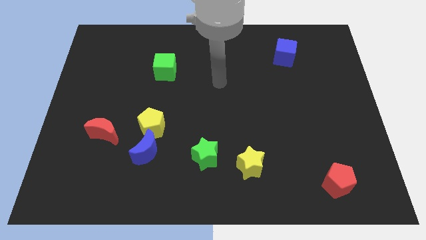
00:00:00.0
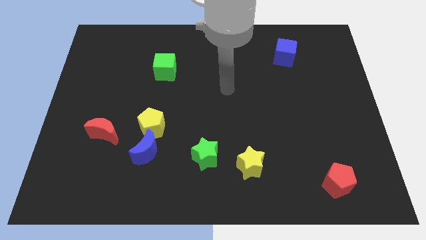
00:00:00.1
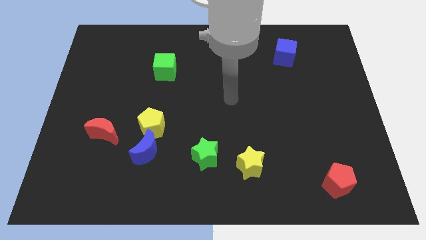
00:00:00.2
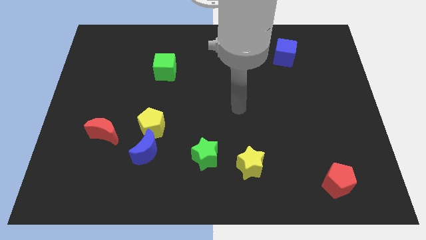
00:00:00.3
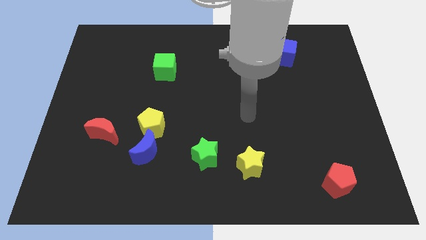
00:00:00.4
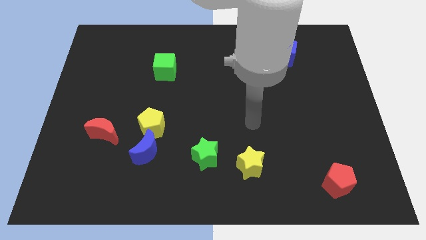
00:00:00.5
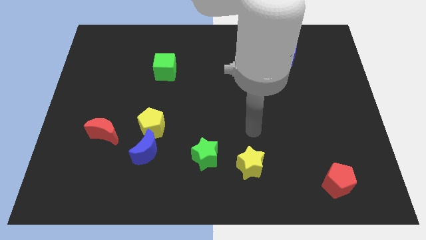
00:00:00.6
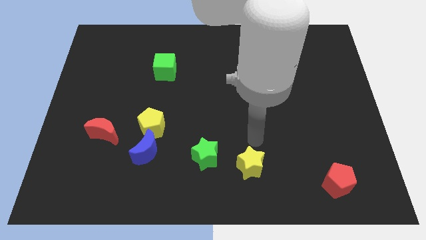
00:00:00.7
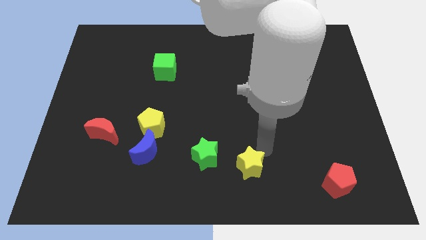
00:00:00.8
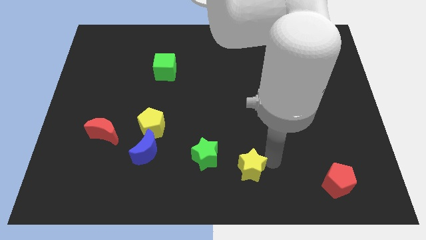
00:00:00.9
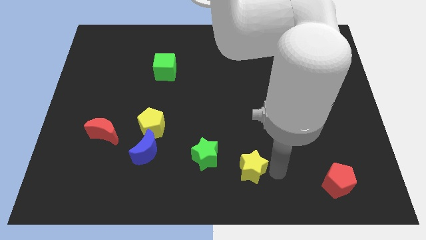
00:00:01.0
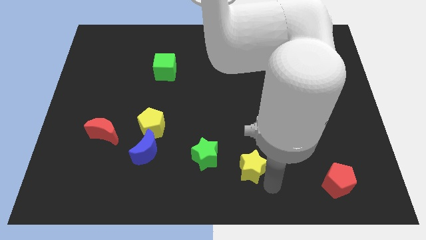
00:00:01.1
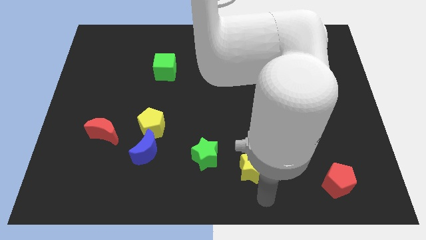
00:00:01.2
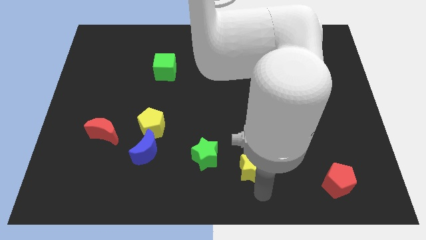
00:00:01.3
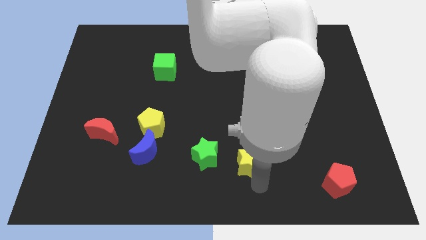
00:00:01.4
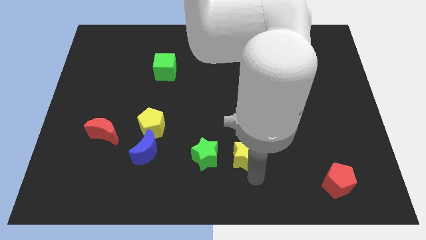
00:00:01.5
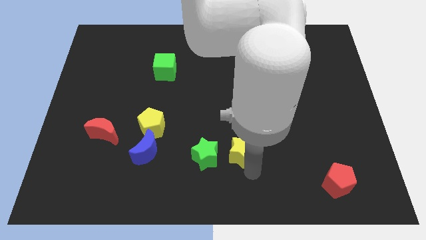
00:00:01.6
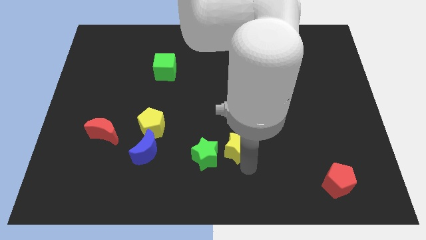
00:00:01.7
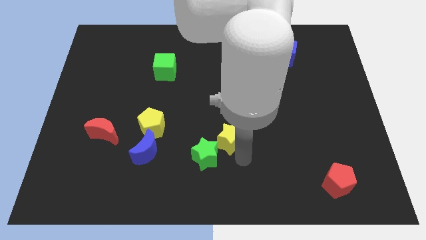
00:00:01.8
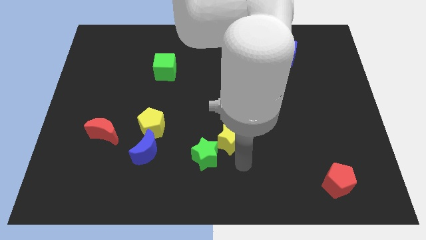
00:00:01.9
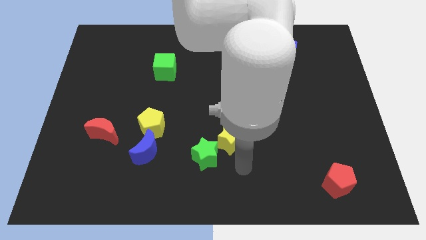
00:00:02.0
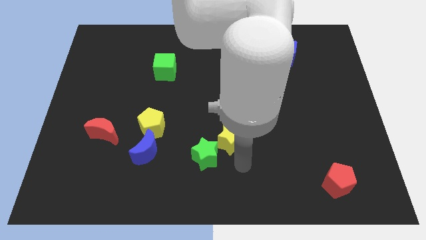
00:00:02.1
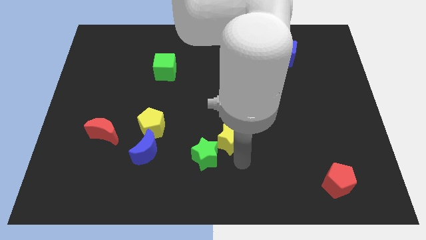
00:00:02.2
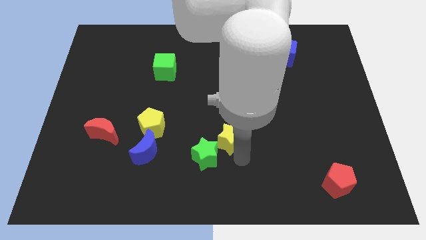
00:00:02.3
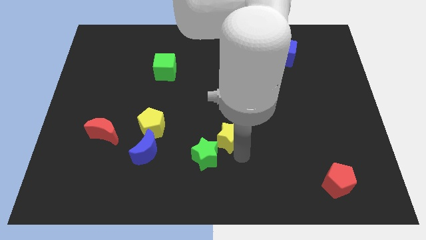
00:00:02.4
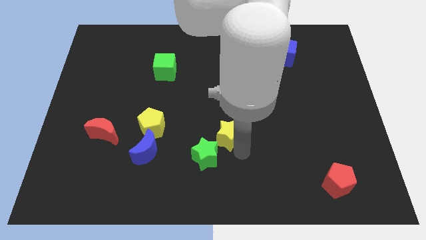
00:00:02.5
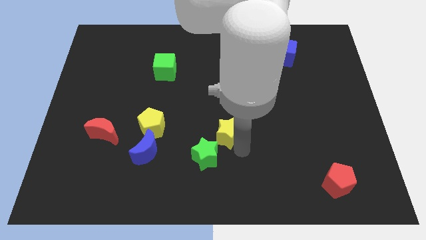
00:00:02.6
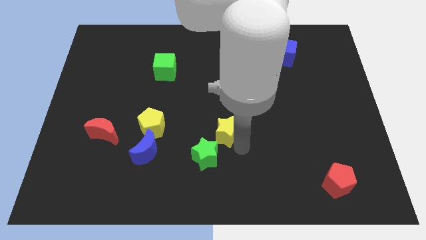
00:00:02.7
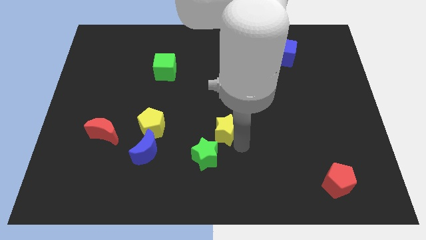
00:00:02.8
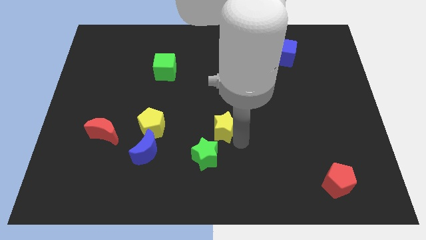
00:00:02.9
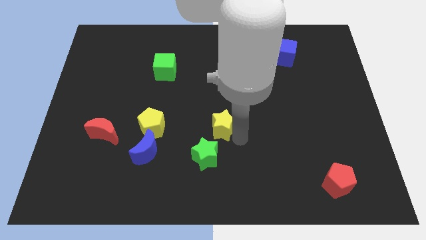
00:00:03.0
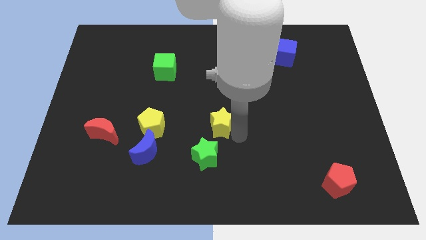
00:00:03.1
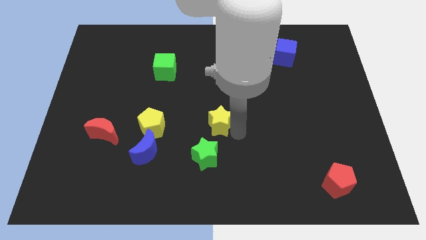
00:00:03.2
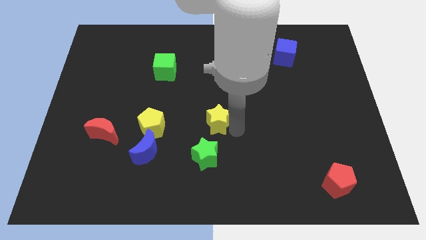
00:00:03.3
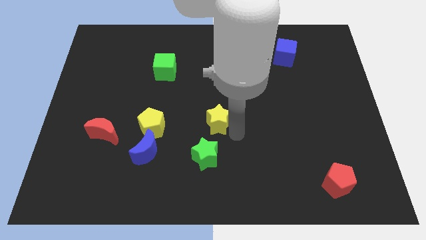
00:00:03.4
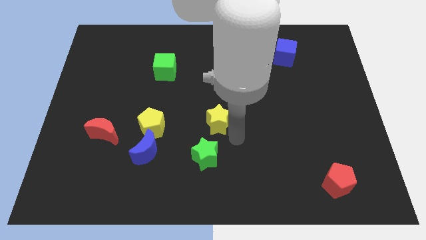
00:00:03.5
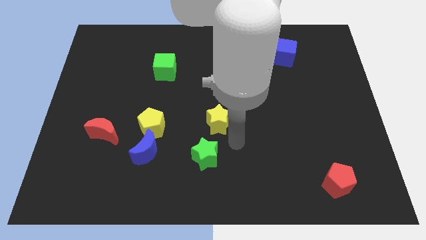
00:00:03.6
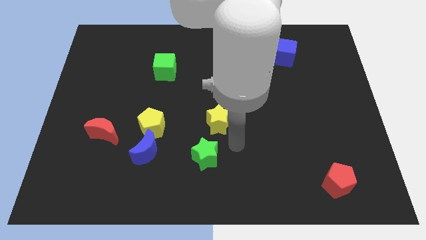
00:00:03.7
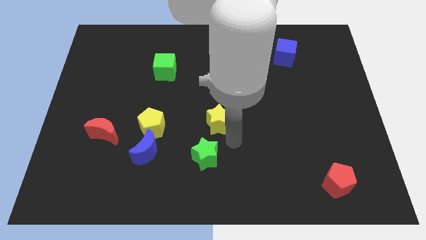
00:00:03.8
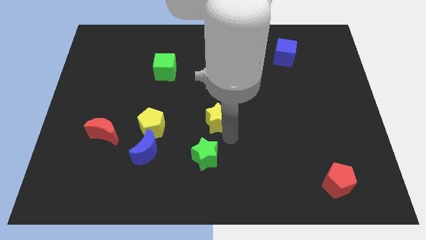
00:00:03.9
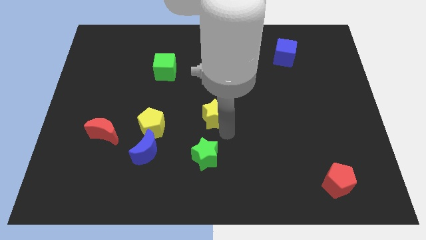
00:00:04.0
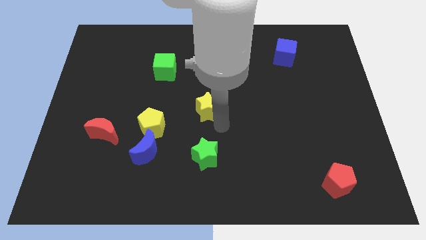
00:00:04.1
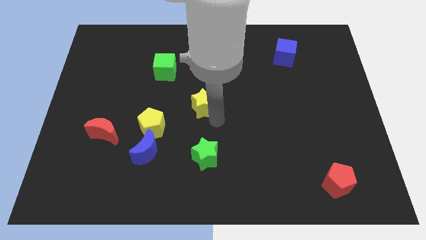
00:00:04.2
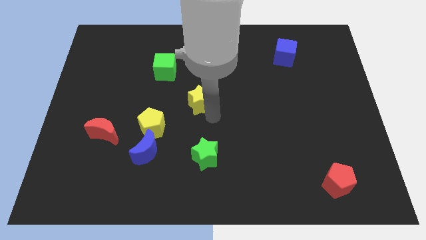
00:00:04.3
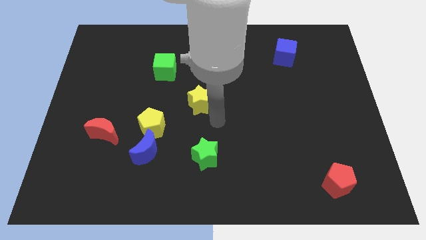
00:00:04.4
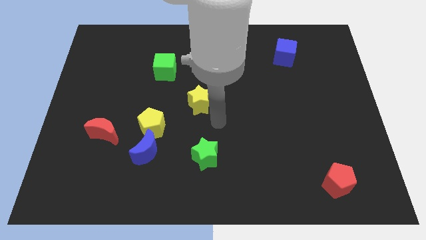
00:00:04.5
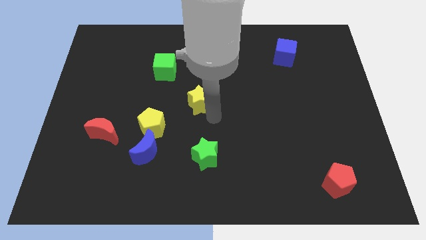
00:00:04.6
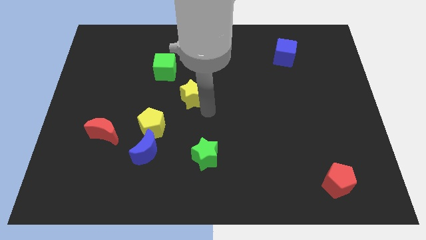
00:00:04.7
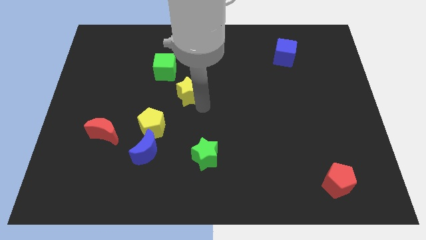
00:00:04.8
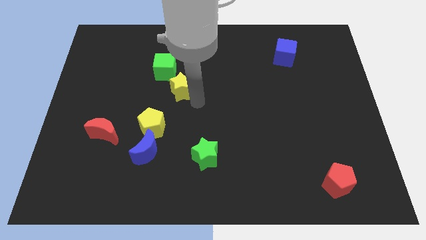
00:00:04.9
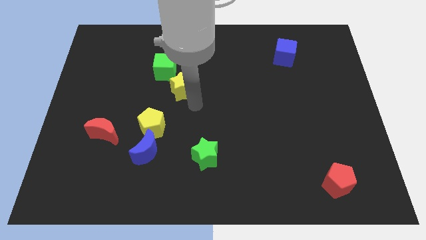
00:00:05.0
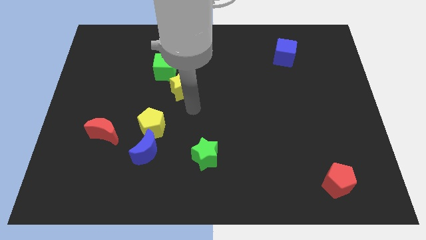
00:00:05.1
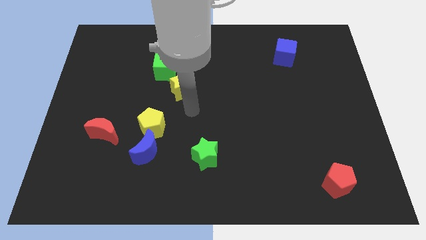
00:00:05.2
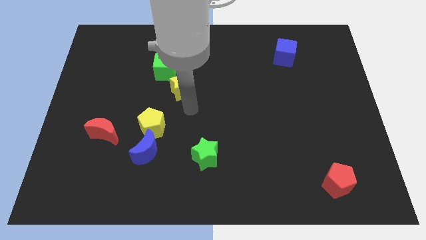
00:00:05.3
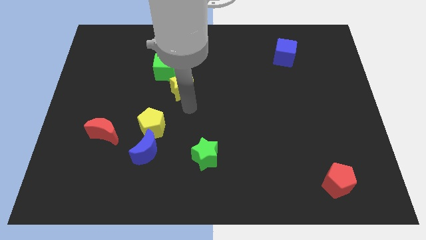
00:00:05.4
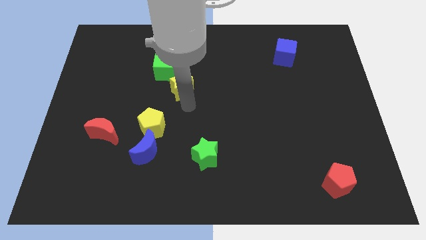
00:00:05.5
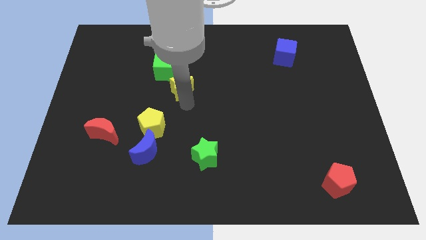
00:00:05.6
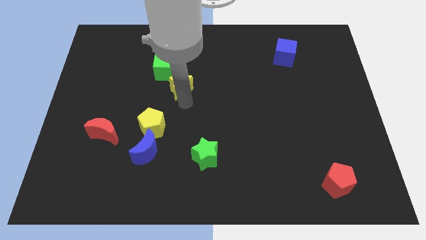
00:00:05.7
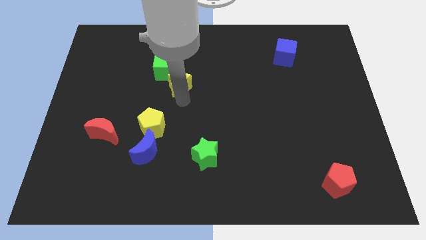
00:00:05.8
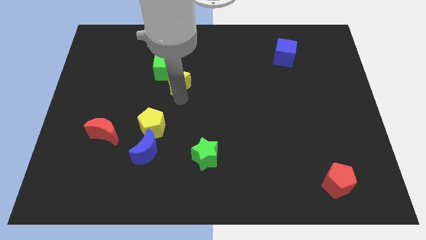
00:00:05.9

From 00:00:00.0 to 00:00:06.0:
push the yellow star next to the green cube

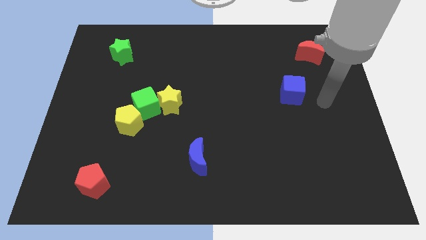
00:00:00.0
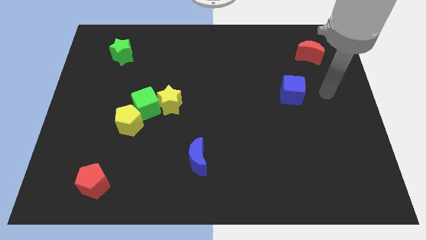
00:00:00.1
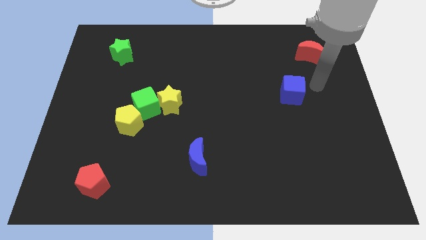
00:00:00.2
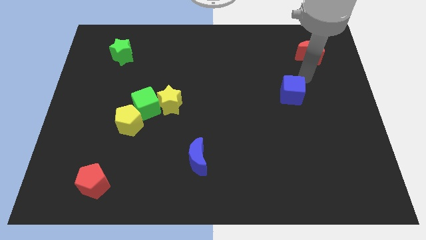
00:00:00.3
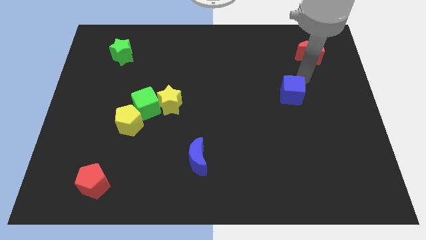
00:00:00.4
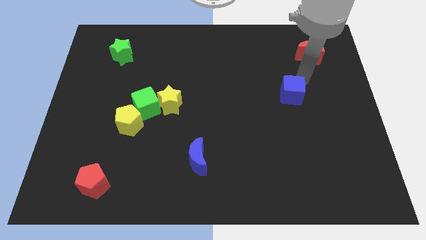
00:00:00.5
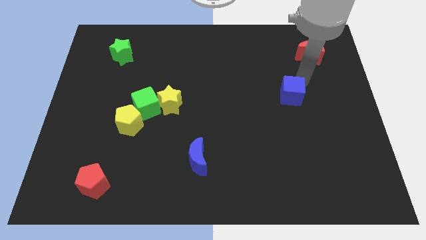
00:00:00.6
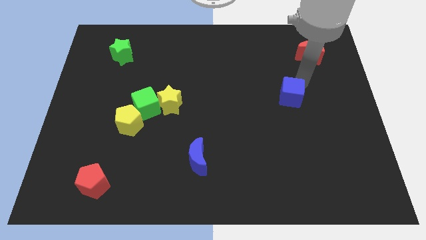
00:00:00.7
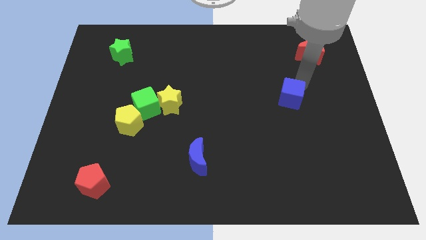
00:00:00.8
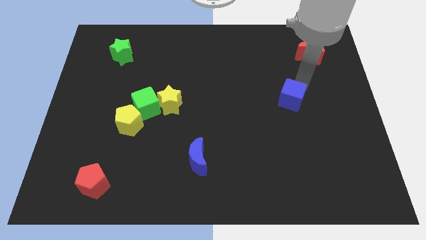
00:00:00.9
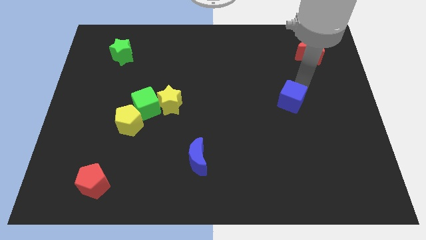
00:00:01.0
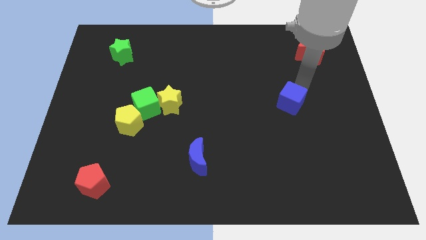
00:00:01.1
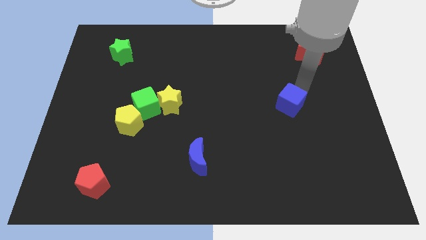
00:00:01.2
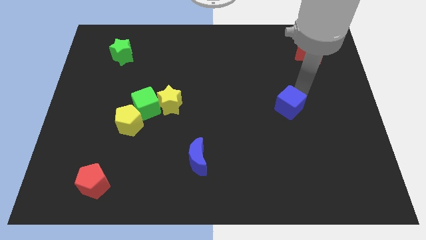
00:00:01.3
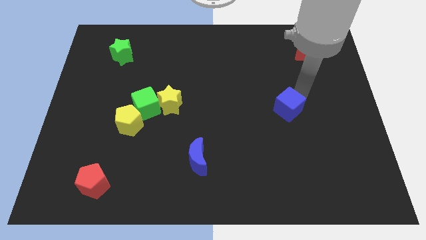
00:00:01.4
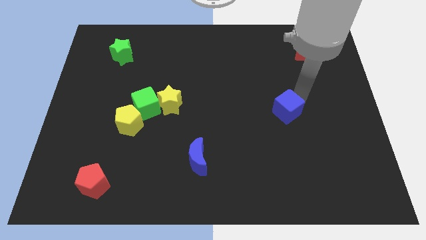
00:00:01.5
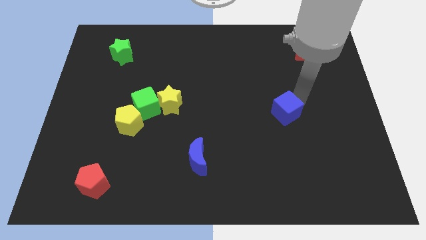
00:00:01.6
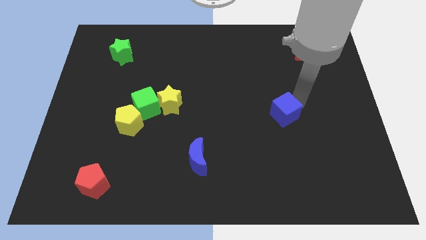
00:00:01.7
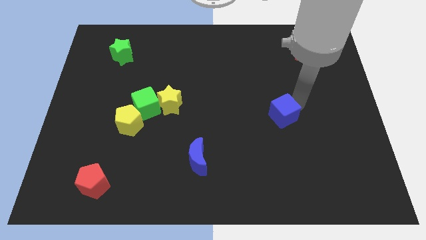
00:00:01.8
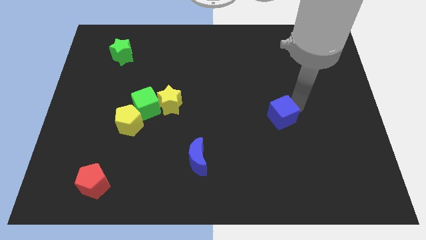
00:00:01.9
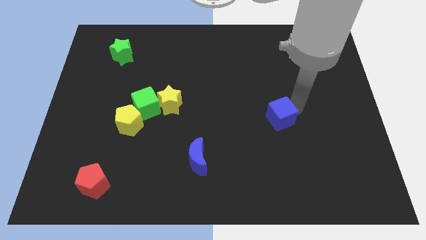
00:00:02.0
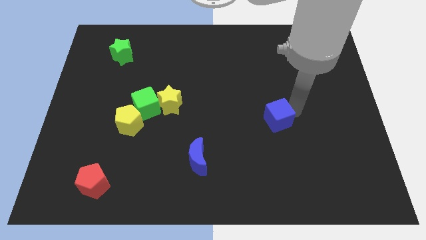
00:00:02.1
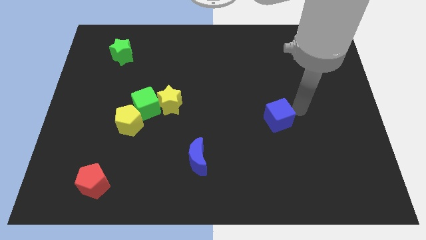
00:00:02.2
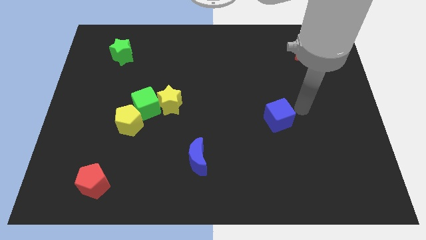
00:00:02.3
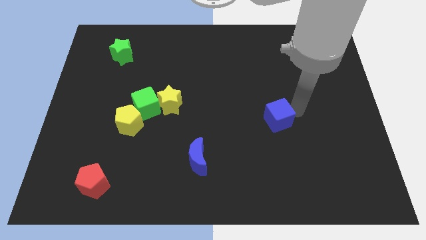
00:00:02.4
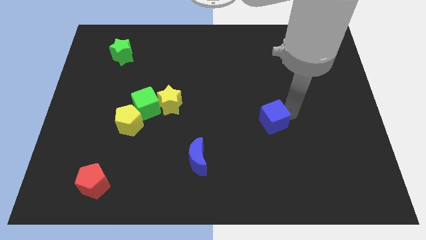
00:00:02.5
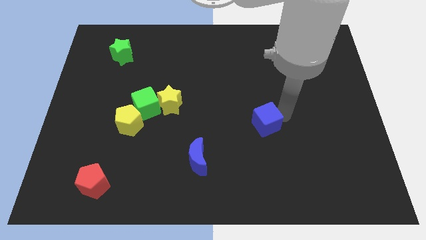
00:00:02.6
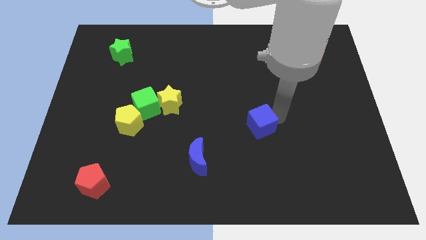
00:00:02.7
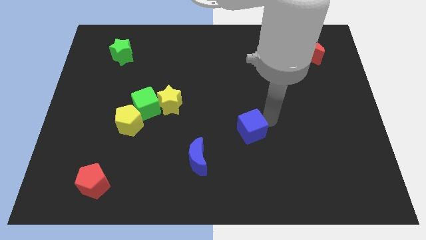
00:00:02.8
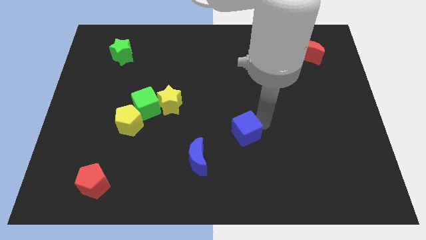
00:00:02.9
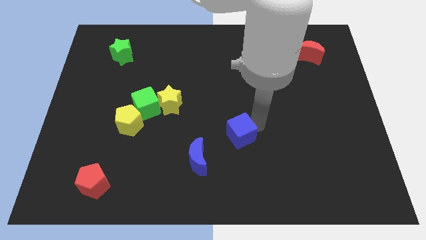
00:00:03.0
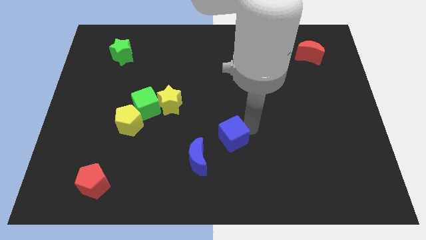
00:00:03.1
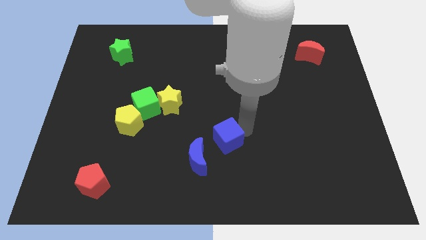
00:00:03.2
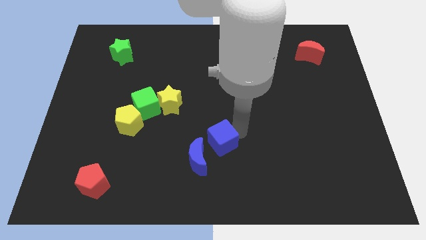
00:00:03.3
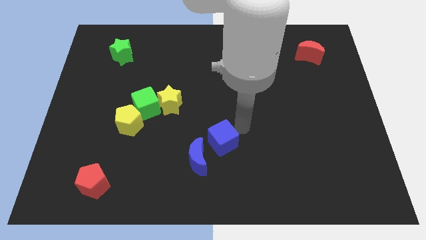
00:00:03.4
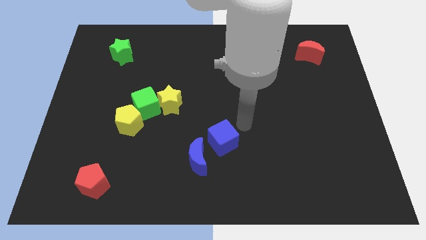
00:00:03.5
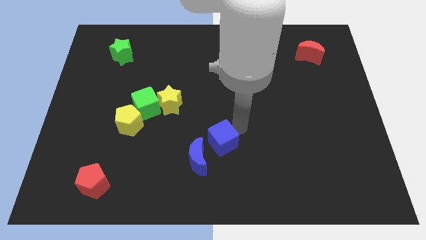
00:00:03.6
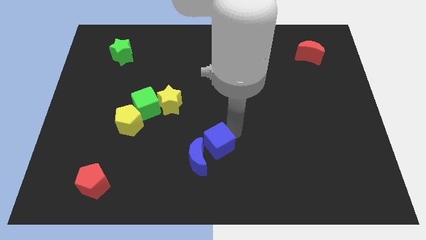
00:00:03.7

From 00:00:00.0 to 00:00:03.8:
push the blue cube close to the blue moon
